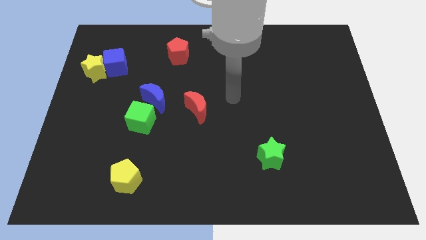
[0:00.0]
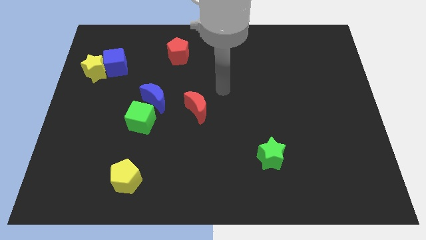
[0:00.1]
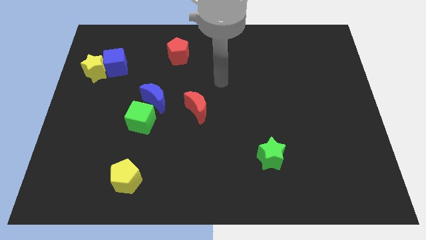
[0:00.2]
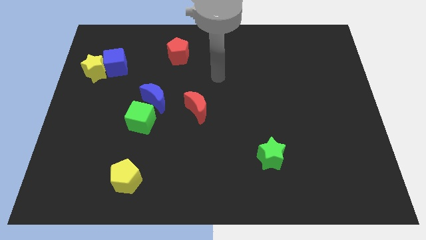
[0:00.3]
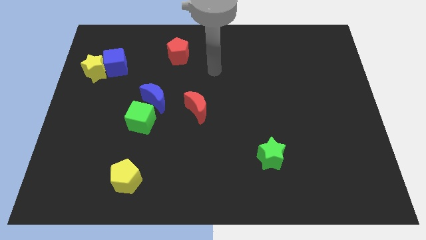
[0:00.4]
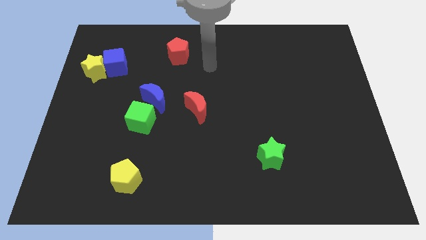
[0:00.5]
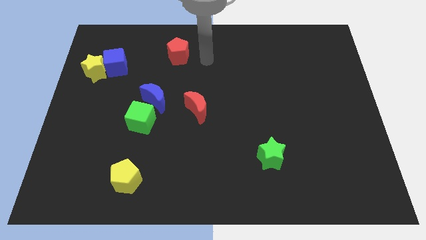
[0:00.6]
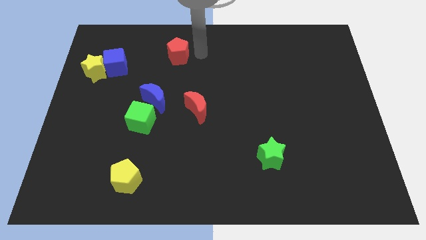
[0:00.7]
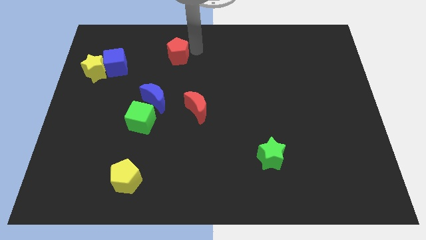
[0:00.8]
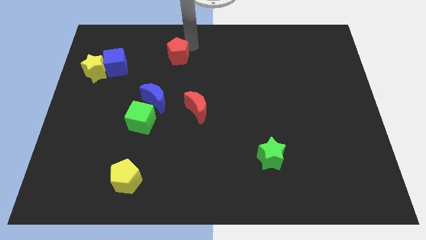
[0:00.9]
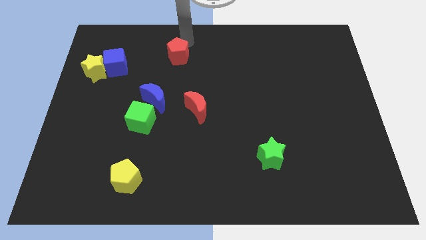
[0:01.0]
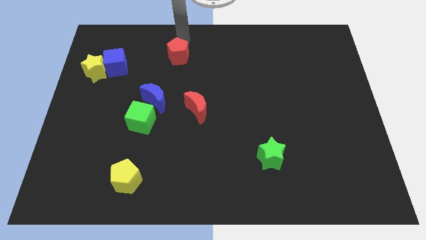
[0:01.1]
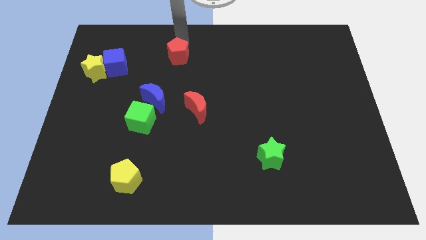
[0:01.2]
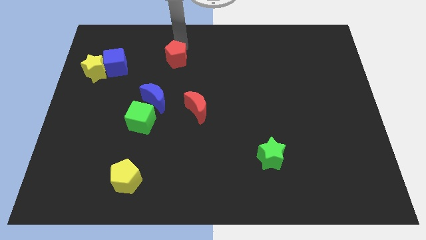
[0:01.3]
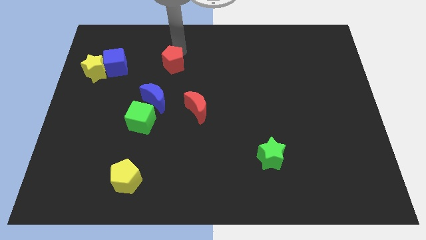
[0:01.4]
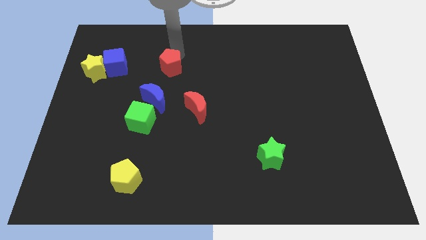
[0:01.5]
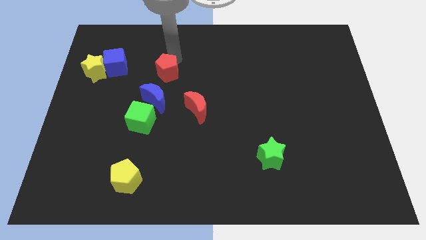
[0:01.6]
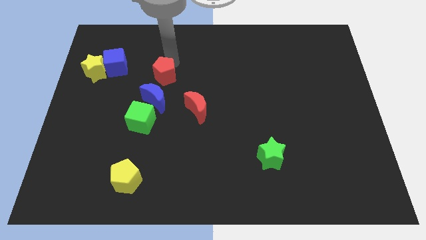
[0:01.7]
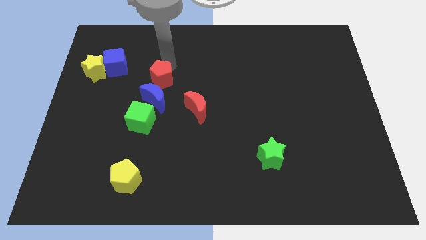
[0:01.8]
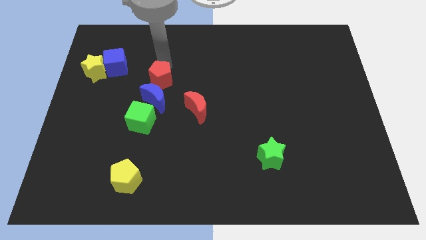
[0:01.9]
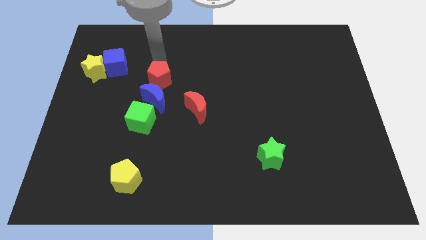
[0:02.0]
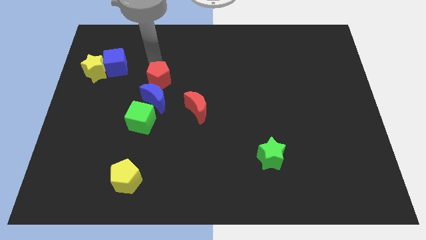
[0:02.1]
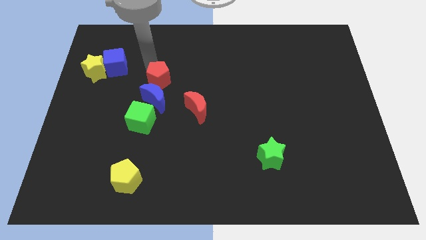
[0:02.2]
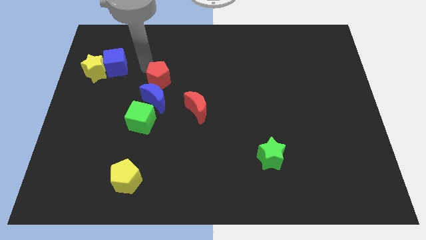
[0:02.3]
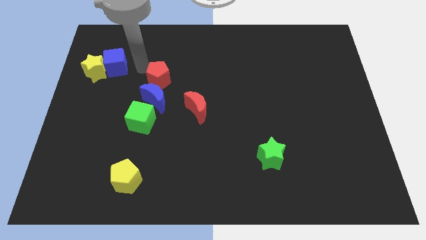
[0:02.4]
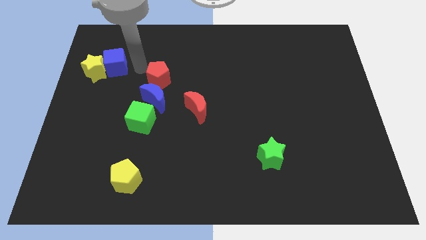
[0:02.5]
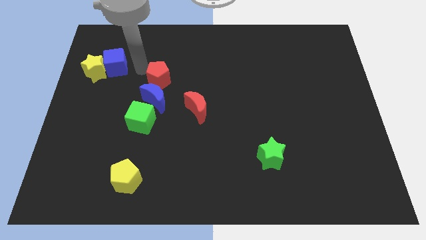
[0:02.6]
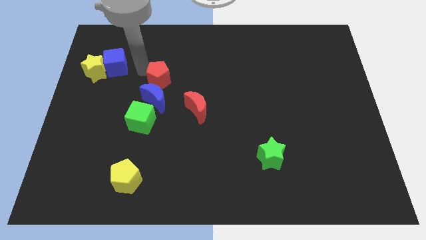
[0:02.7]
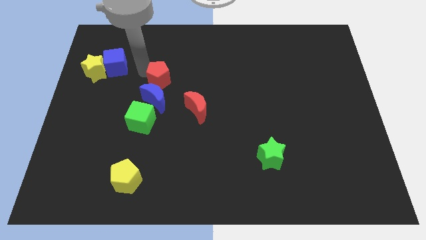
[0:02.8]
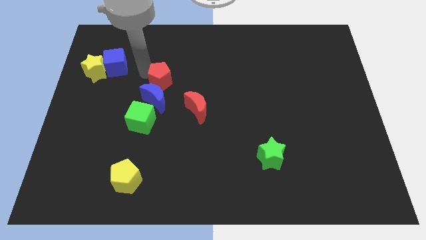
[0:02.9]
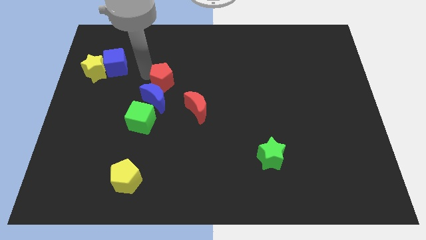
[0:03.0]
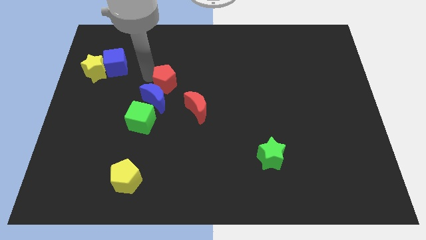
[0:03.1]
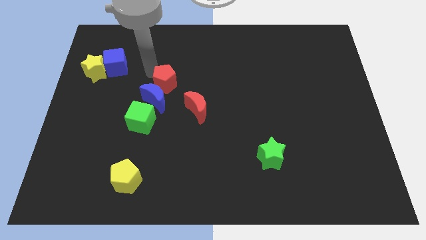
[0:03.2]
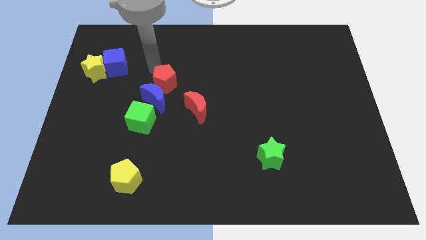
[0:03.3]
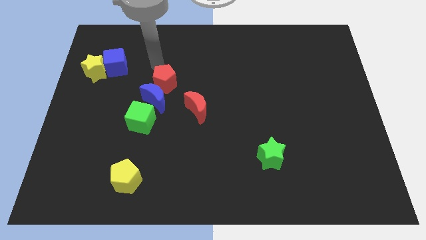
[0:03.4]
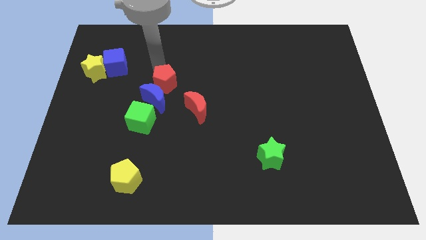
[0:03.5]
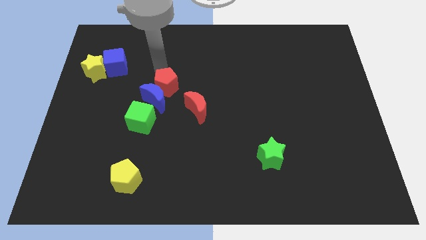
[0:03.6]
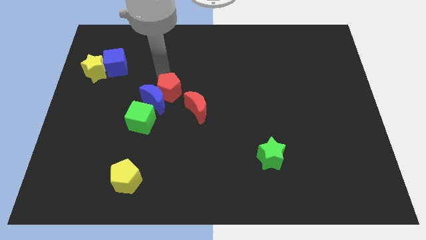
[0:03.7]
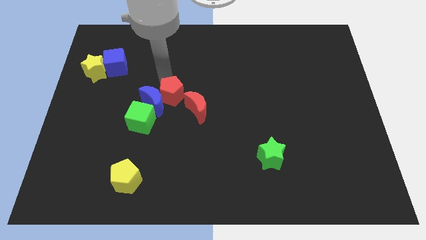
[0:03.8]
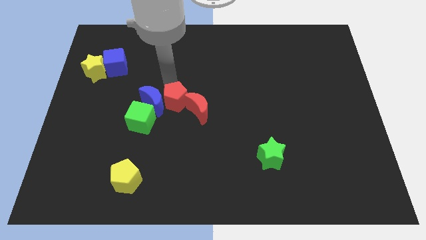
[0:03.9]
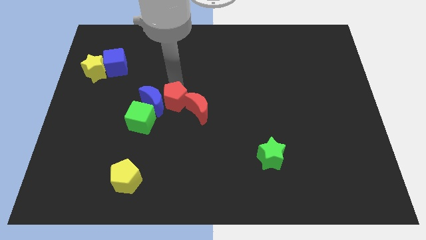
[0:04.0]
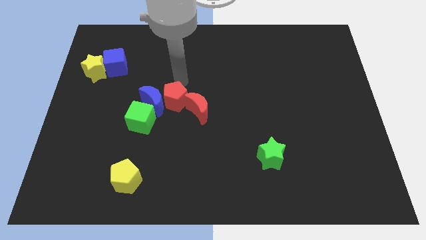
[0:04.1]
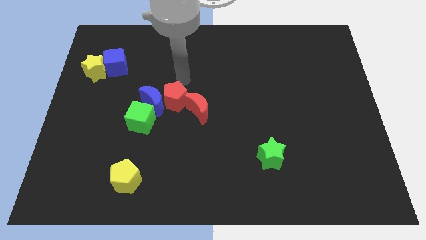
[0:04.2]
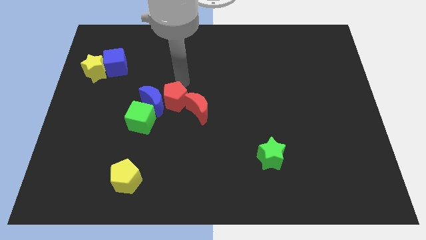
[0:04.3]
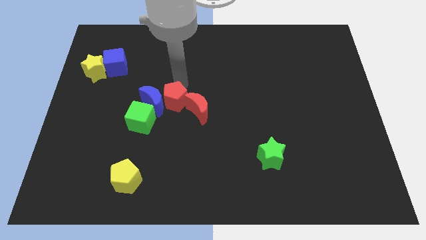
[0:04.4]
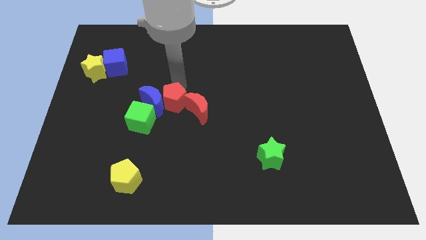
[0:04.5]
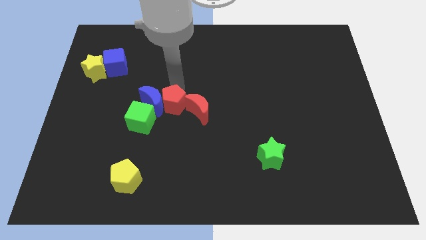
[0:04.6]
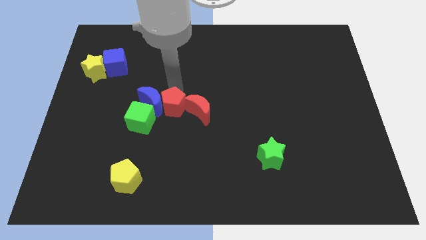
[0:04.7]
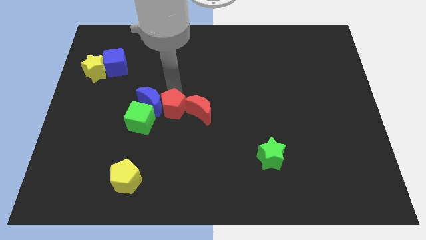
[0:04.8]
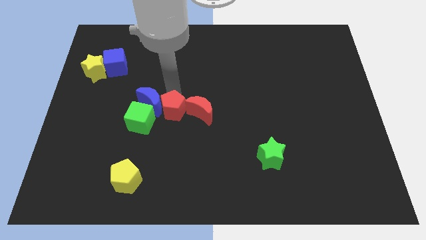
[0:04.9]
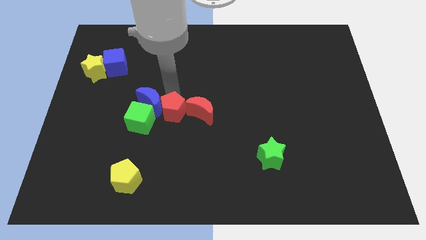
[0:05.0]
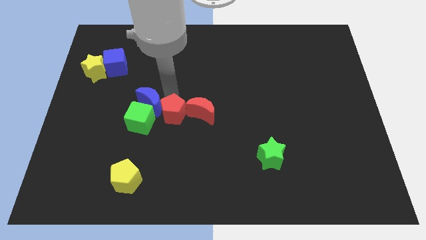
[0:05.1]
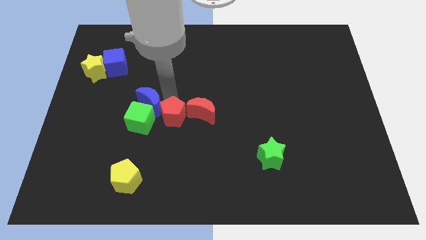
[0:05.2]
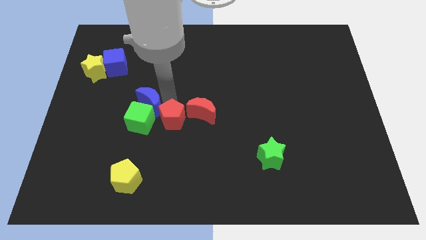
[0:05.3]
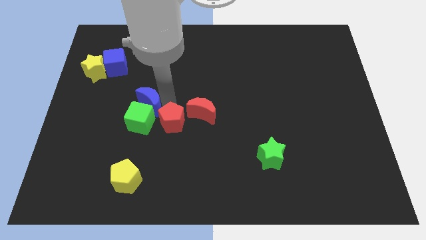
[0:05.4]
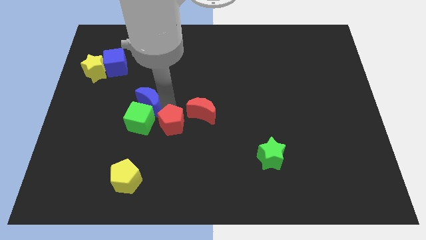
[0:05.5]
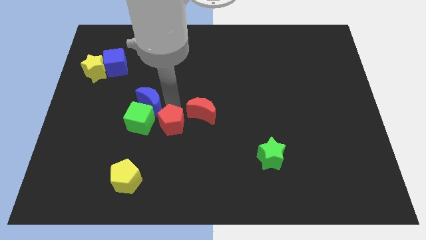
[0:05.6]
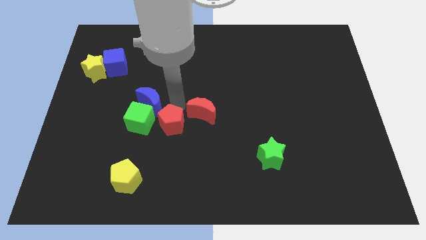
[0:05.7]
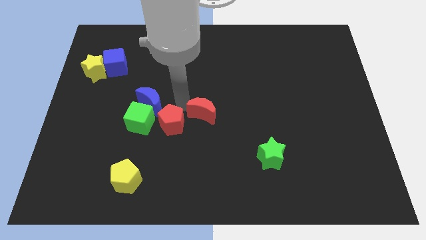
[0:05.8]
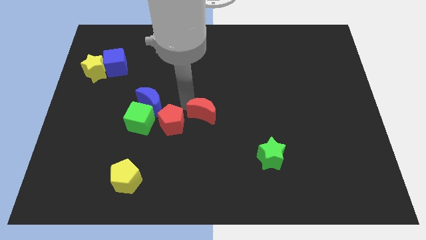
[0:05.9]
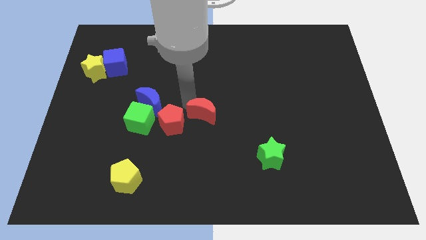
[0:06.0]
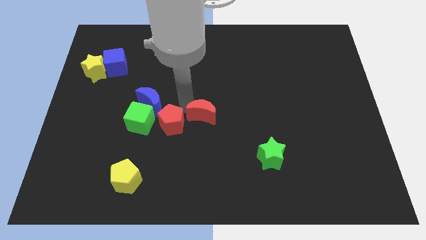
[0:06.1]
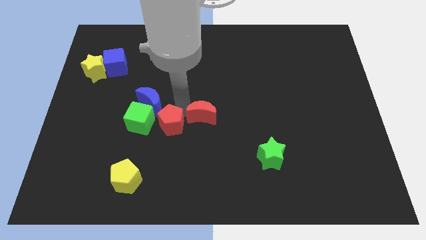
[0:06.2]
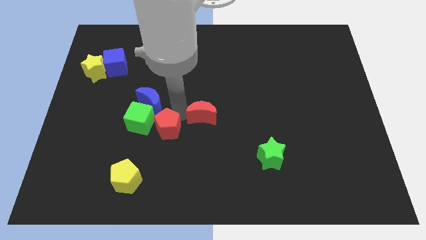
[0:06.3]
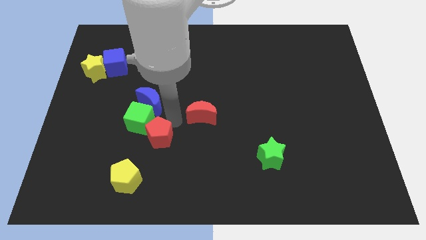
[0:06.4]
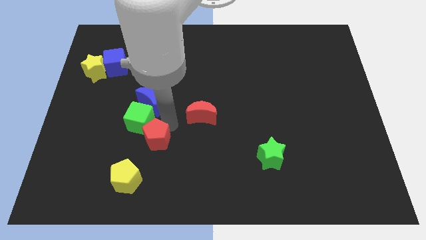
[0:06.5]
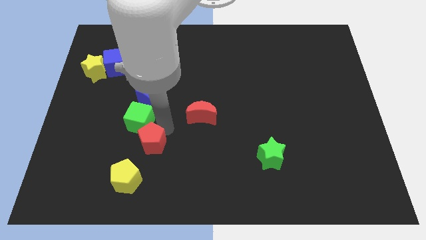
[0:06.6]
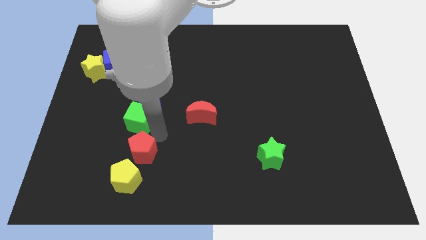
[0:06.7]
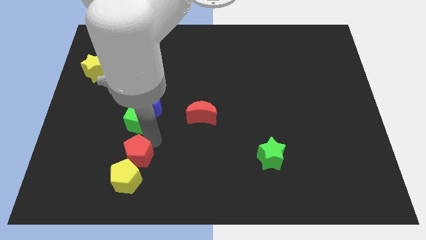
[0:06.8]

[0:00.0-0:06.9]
push the red pentagon next to the yellow pentagon
